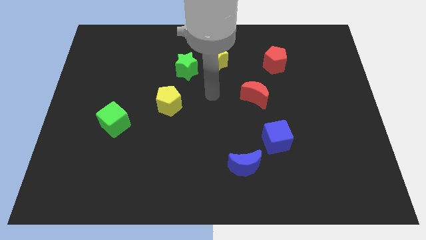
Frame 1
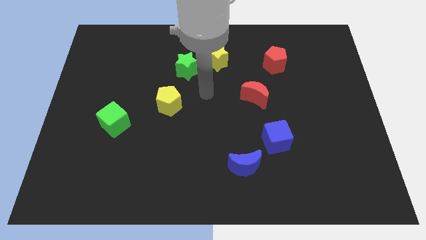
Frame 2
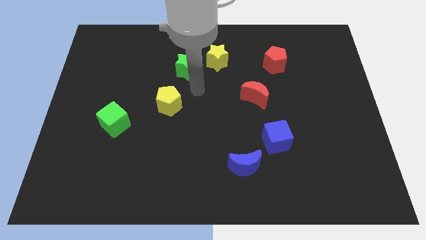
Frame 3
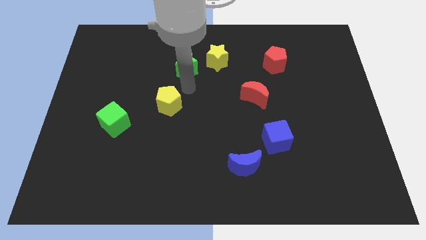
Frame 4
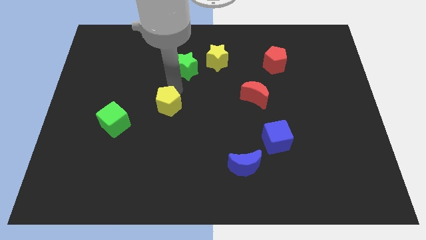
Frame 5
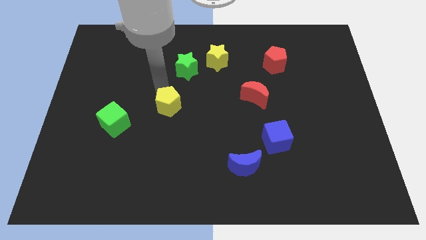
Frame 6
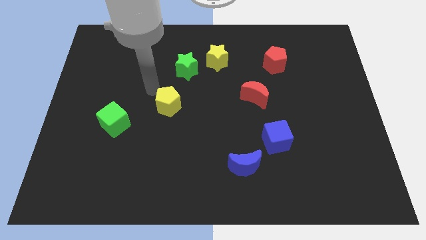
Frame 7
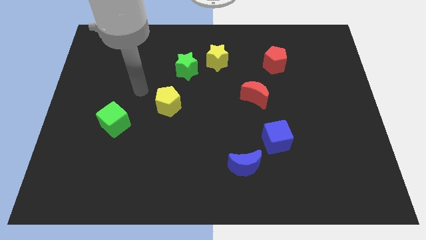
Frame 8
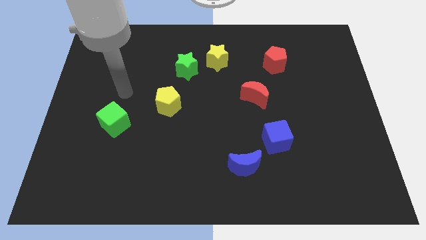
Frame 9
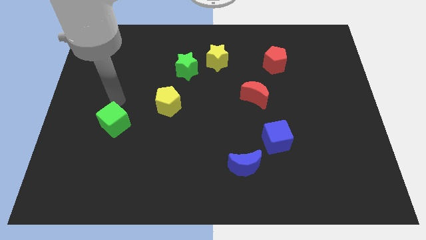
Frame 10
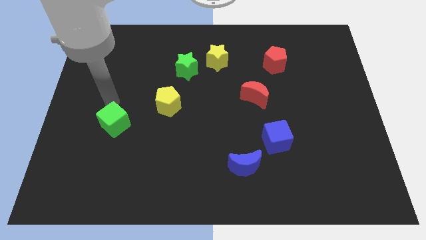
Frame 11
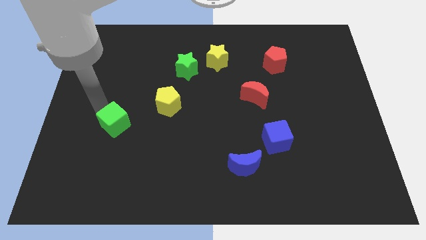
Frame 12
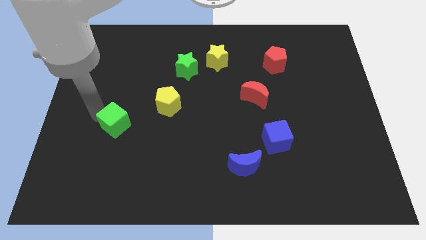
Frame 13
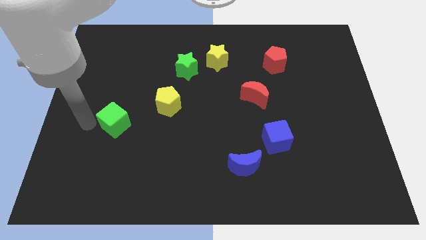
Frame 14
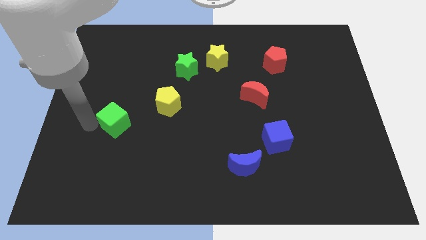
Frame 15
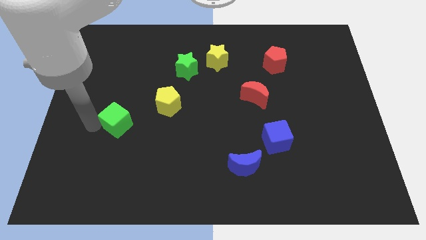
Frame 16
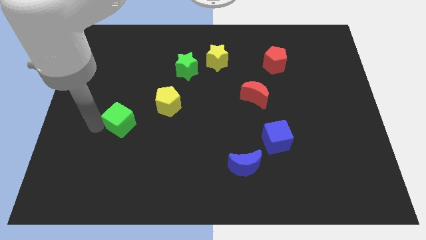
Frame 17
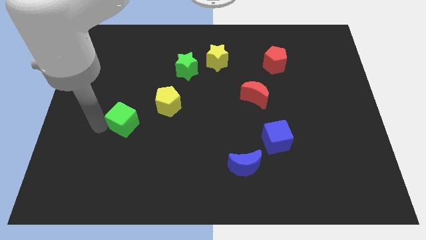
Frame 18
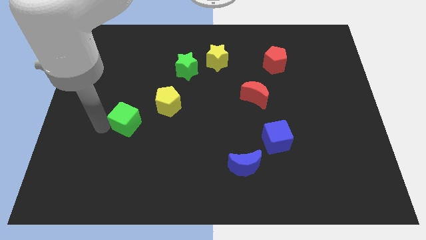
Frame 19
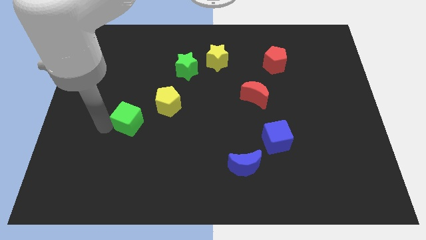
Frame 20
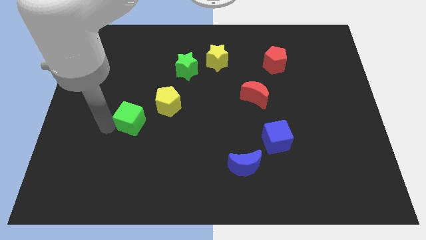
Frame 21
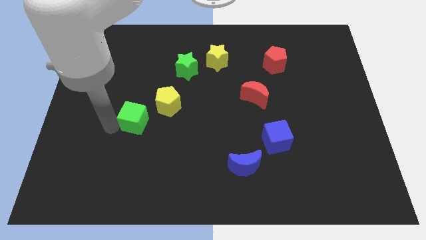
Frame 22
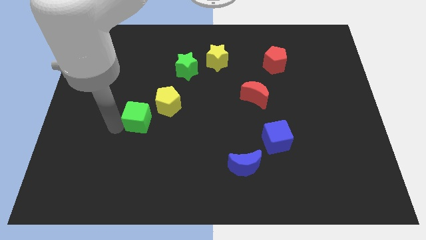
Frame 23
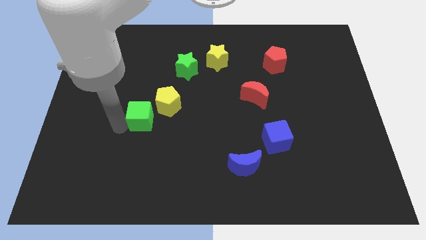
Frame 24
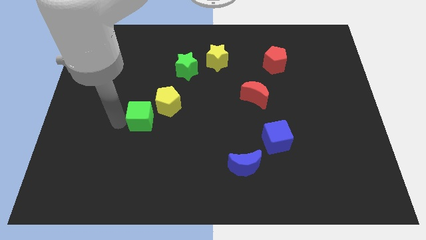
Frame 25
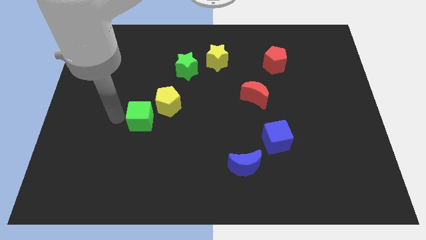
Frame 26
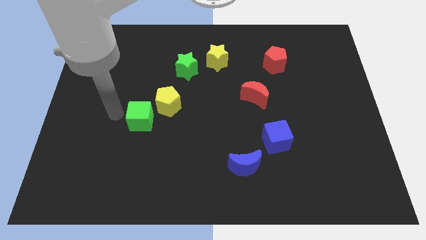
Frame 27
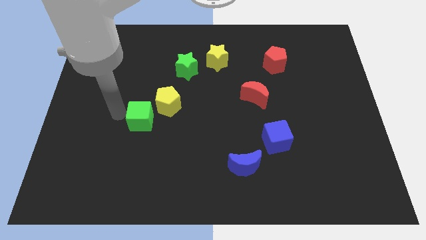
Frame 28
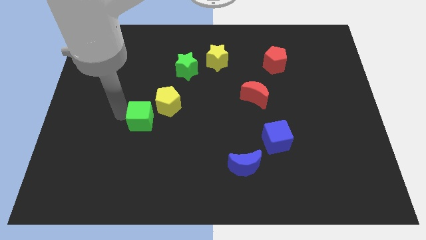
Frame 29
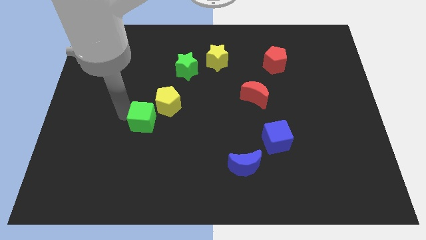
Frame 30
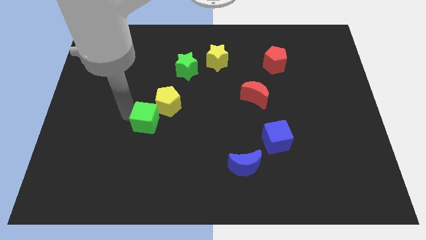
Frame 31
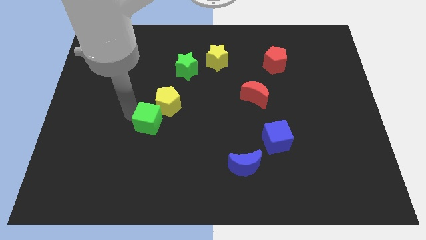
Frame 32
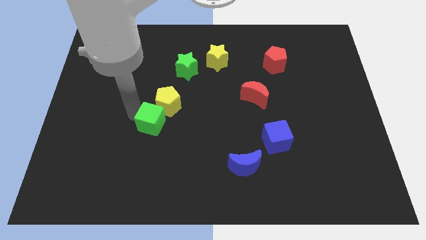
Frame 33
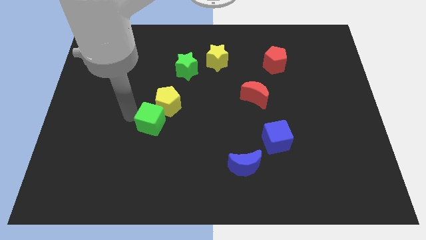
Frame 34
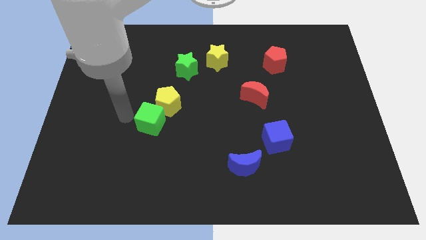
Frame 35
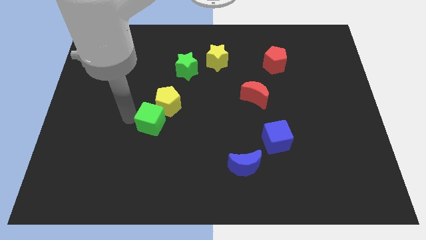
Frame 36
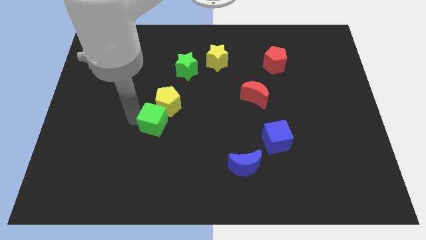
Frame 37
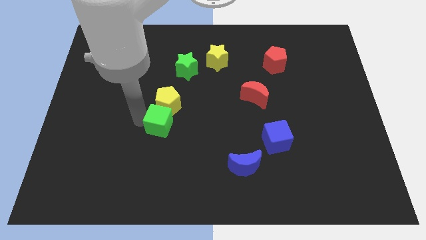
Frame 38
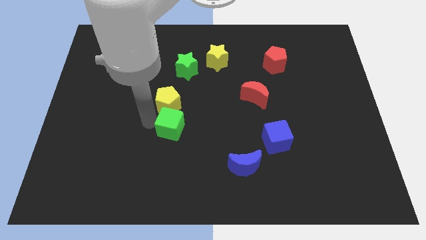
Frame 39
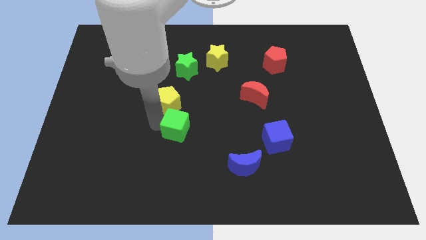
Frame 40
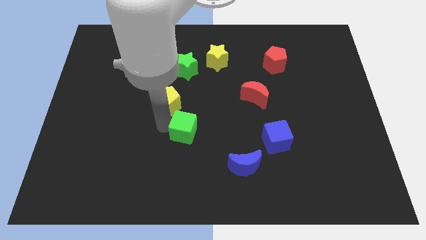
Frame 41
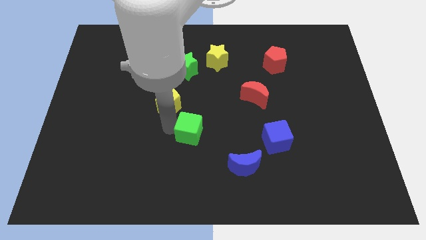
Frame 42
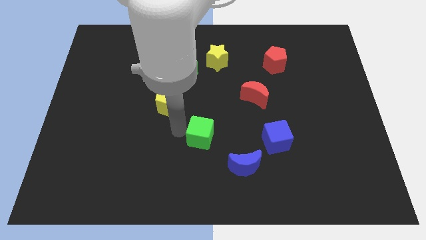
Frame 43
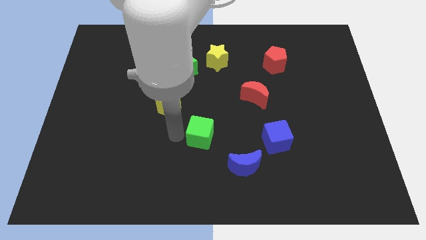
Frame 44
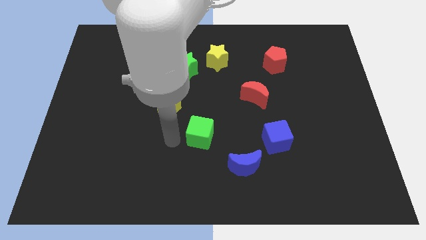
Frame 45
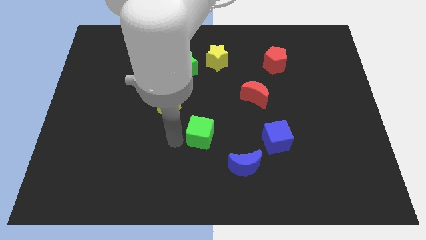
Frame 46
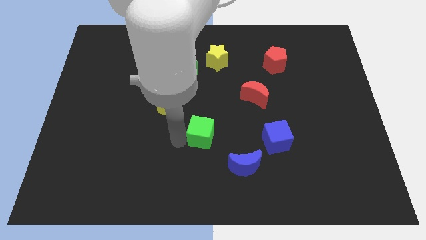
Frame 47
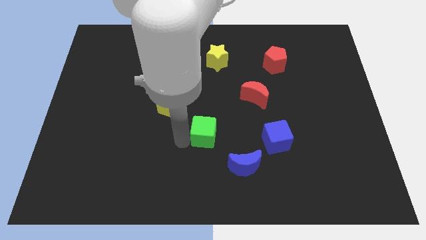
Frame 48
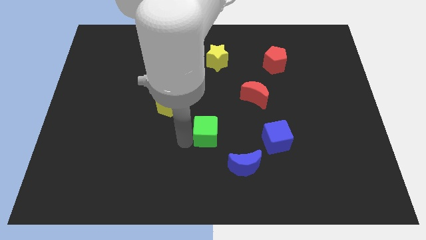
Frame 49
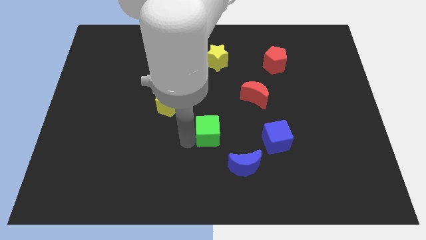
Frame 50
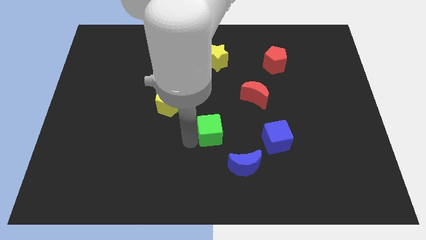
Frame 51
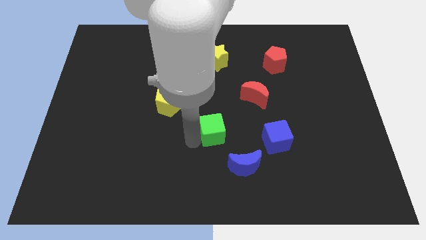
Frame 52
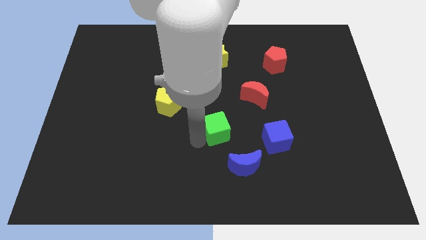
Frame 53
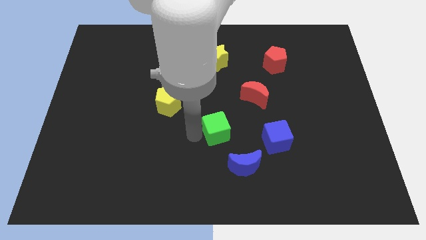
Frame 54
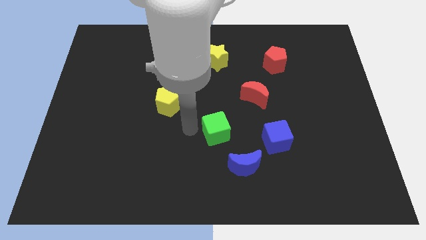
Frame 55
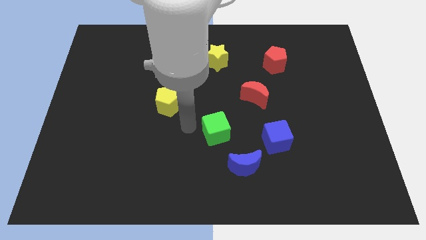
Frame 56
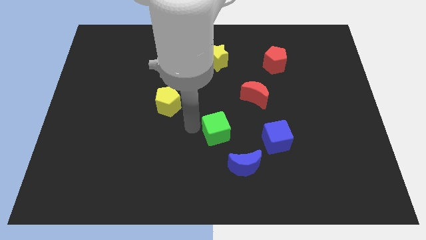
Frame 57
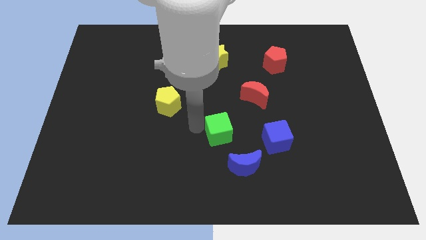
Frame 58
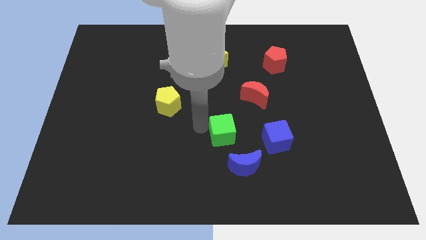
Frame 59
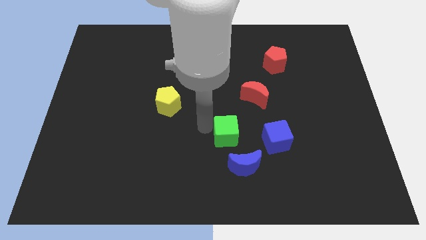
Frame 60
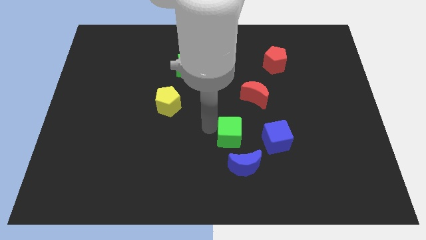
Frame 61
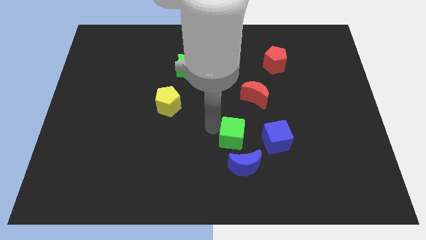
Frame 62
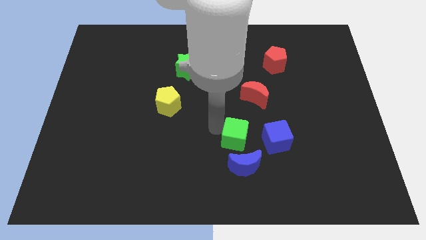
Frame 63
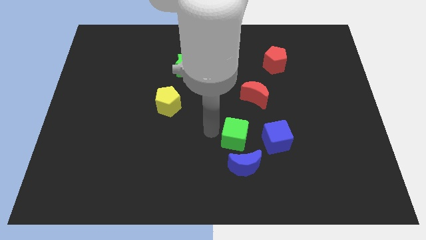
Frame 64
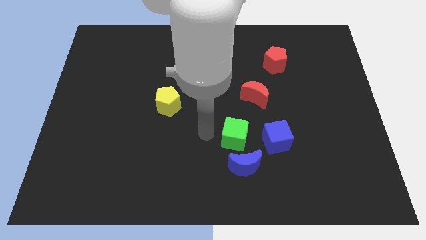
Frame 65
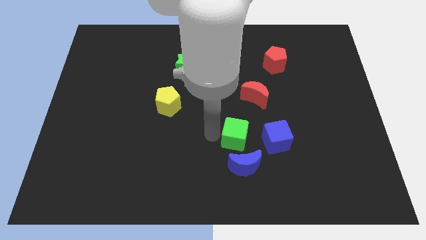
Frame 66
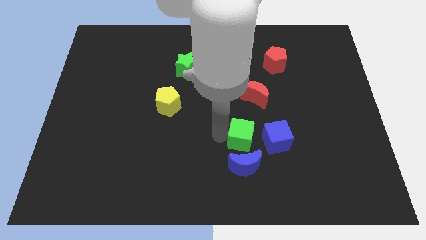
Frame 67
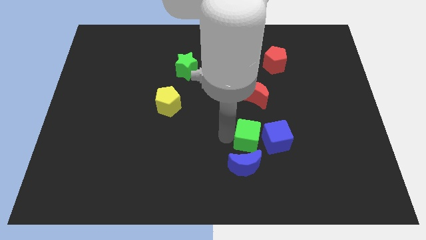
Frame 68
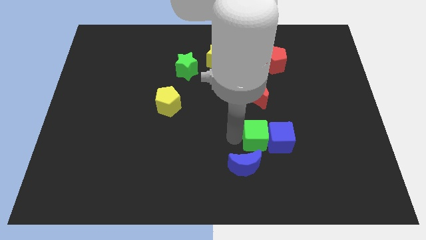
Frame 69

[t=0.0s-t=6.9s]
slide the green cube towards the blue cube
